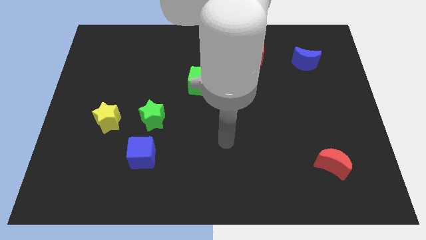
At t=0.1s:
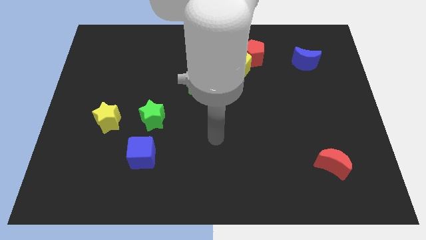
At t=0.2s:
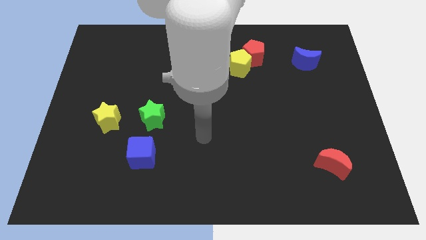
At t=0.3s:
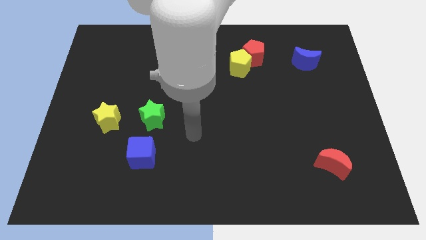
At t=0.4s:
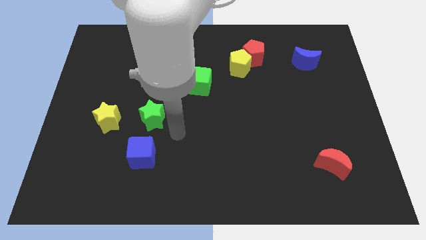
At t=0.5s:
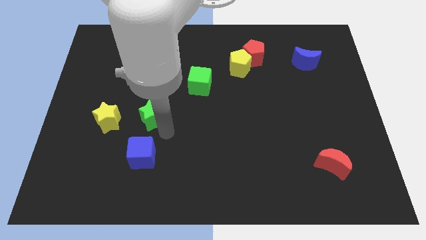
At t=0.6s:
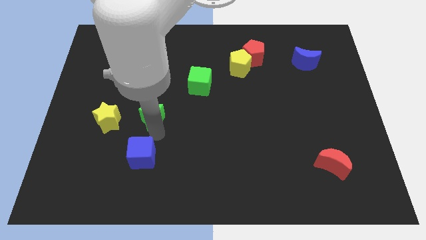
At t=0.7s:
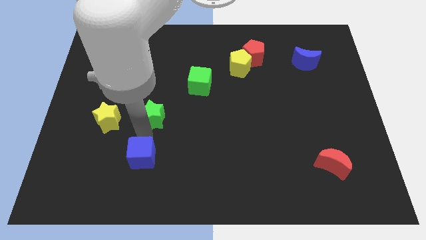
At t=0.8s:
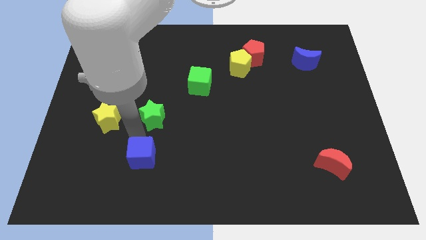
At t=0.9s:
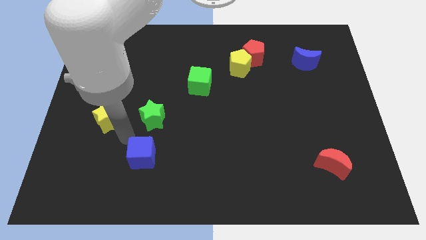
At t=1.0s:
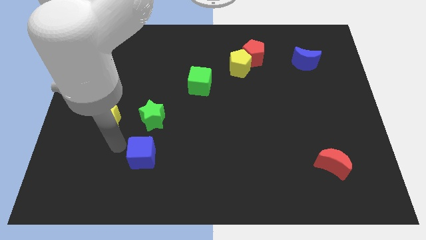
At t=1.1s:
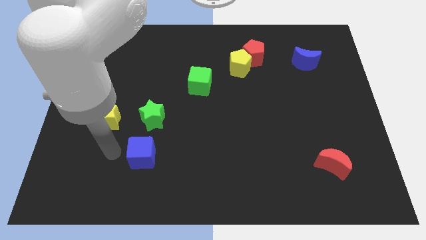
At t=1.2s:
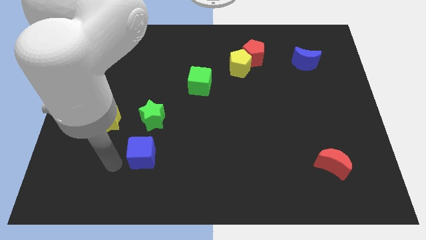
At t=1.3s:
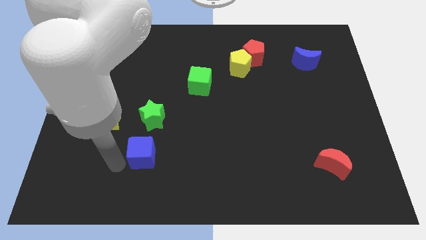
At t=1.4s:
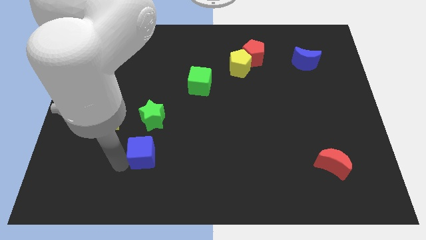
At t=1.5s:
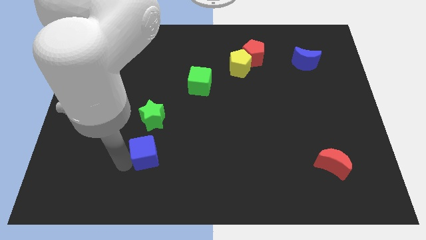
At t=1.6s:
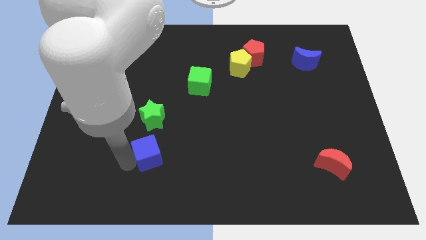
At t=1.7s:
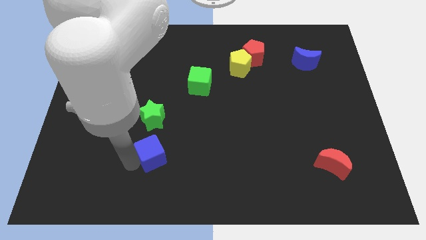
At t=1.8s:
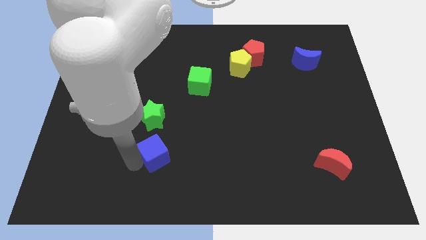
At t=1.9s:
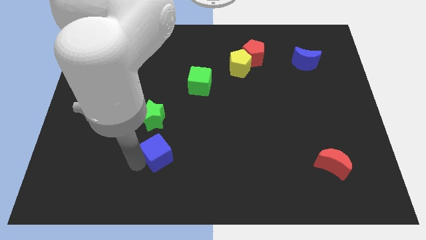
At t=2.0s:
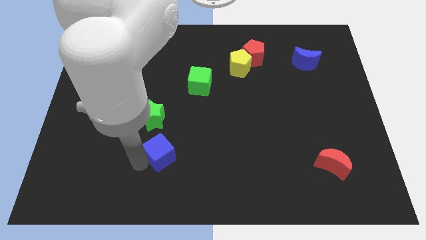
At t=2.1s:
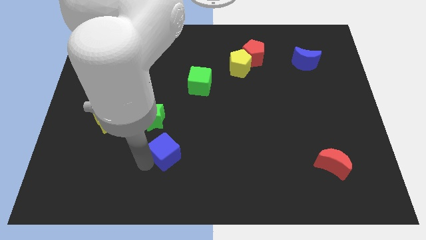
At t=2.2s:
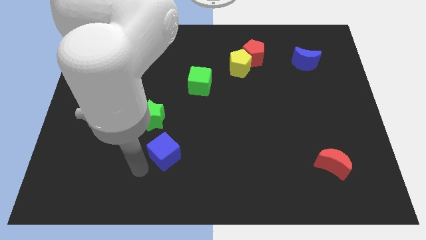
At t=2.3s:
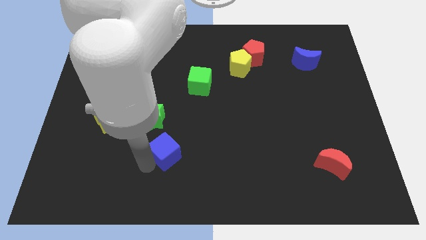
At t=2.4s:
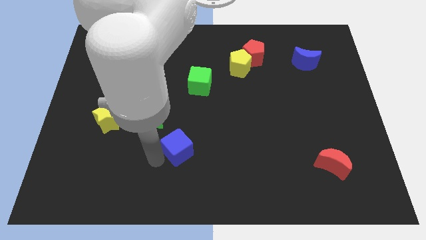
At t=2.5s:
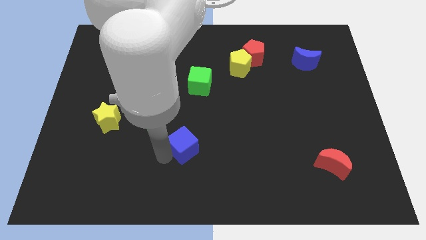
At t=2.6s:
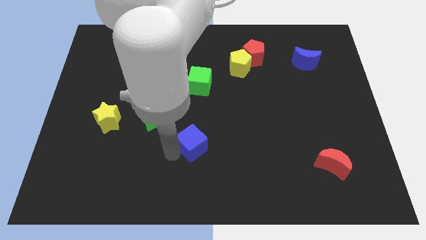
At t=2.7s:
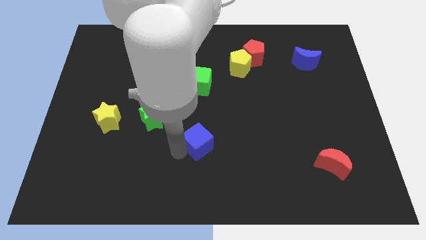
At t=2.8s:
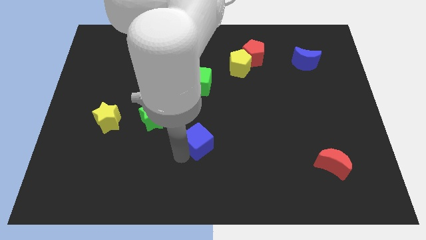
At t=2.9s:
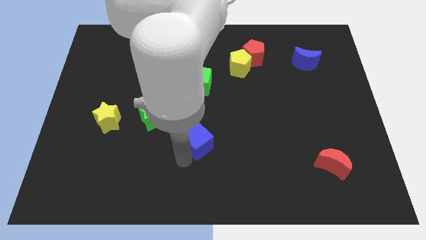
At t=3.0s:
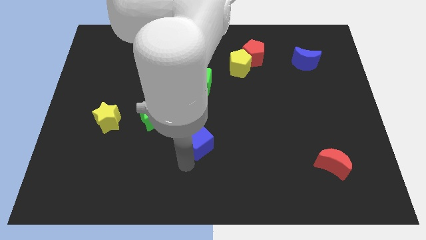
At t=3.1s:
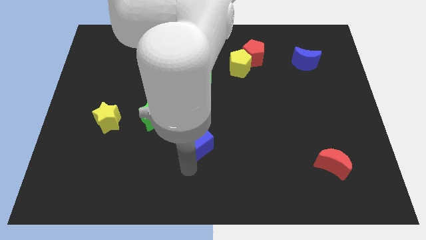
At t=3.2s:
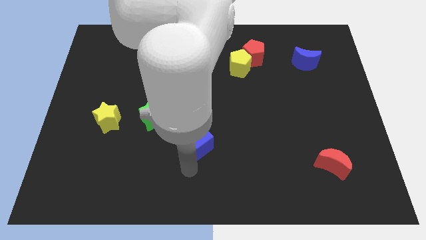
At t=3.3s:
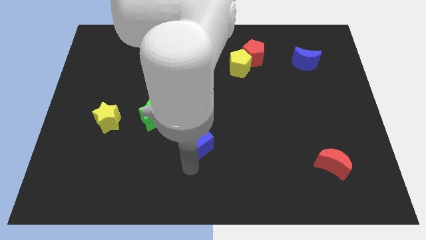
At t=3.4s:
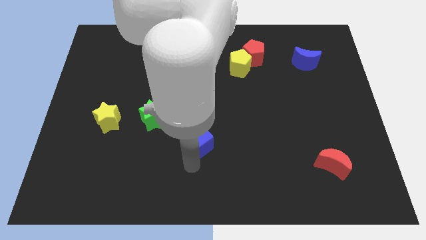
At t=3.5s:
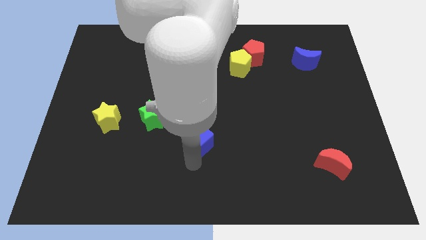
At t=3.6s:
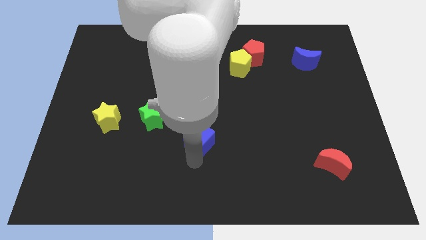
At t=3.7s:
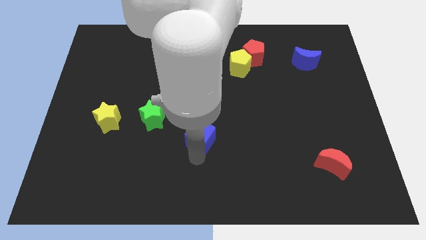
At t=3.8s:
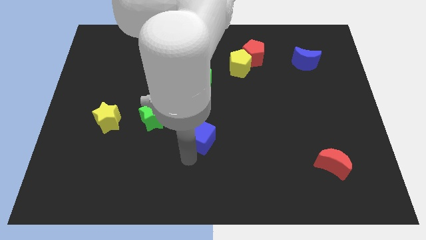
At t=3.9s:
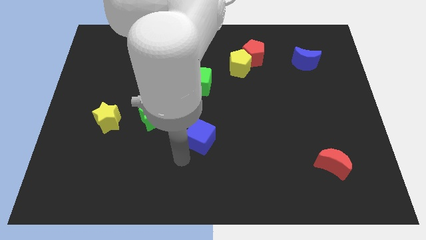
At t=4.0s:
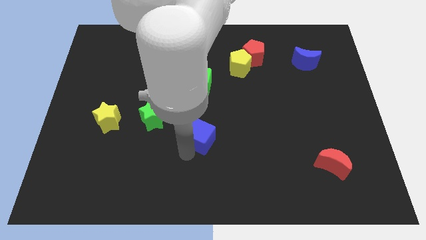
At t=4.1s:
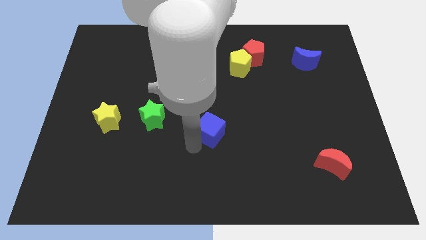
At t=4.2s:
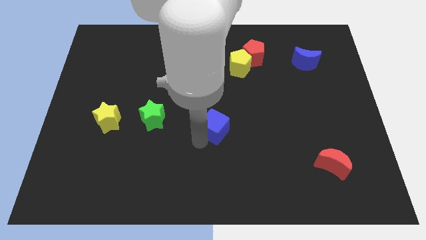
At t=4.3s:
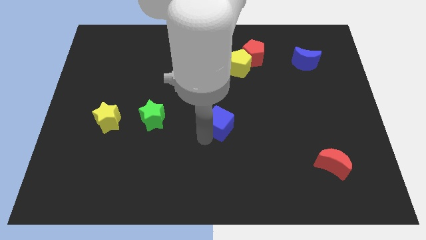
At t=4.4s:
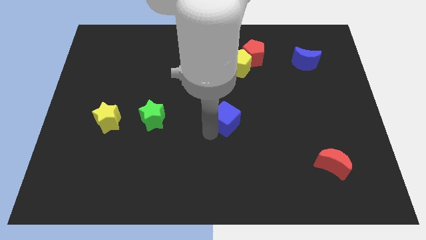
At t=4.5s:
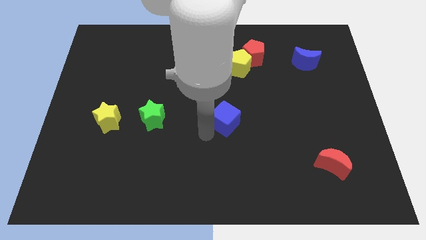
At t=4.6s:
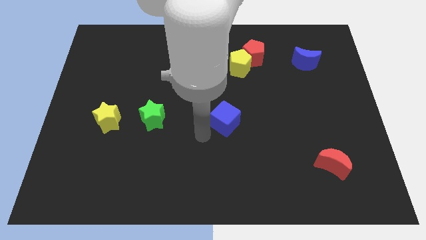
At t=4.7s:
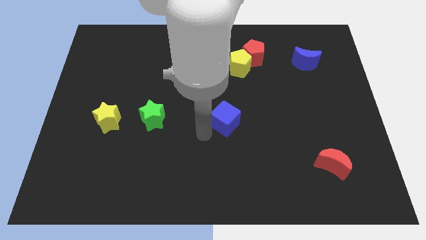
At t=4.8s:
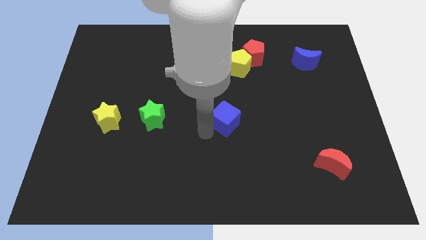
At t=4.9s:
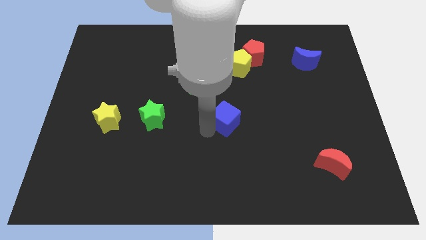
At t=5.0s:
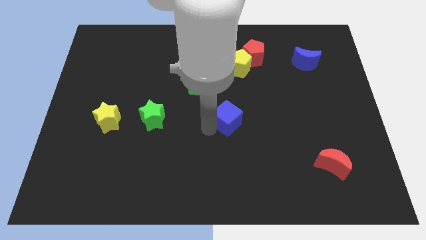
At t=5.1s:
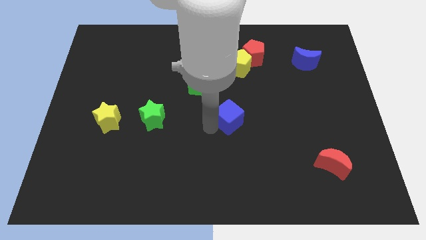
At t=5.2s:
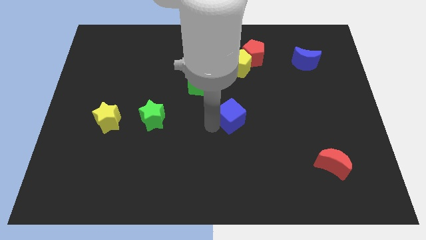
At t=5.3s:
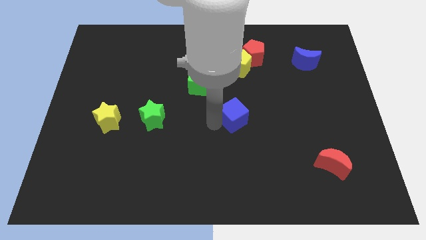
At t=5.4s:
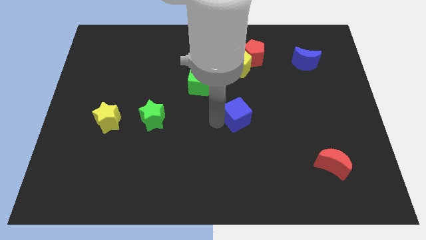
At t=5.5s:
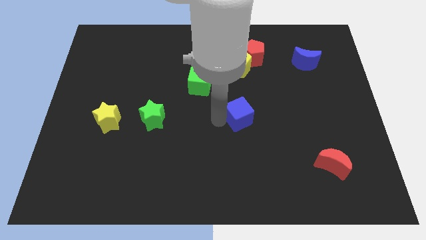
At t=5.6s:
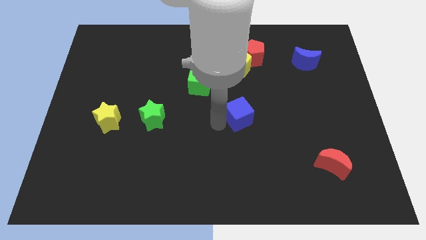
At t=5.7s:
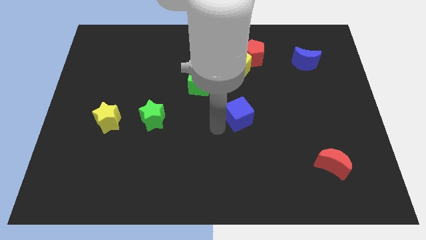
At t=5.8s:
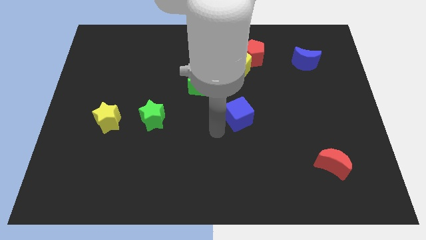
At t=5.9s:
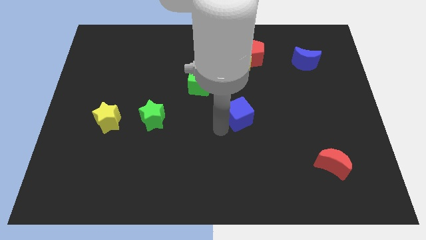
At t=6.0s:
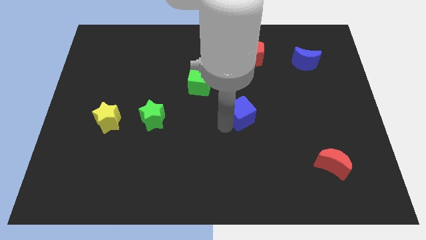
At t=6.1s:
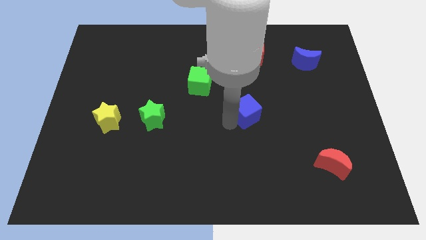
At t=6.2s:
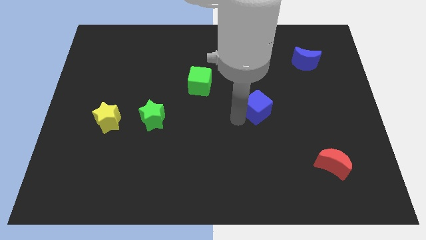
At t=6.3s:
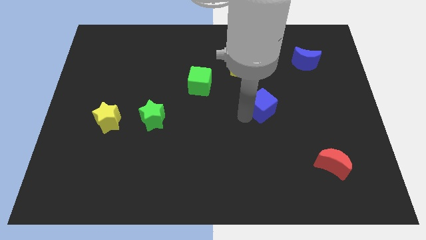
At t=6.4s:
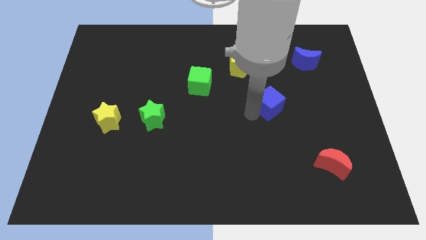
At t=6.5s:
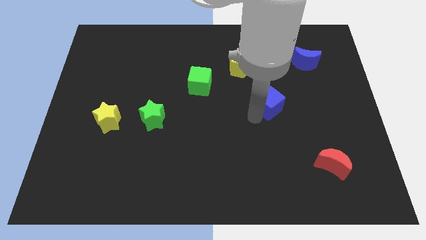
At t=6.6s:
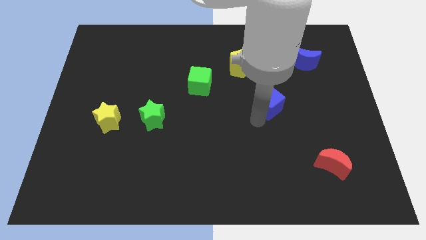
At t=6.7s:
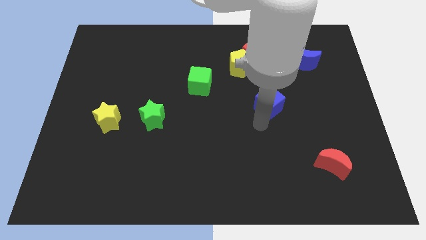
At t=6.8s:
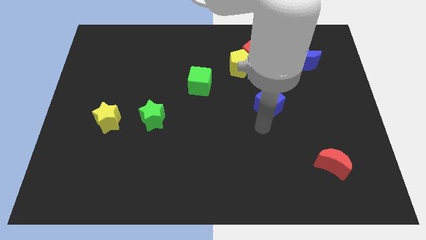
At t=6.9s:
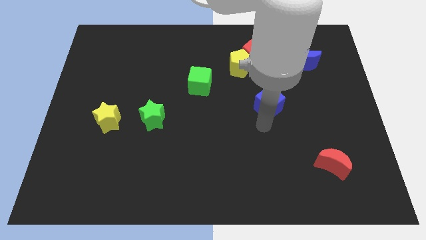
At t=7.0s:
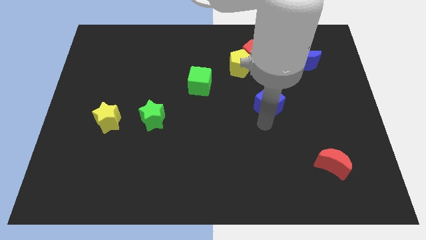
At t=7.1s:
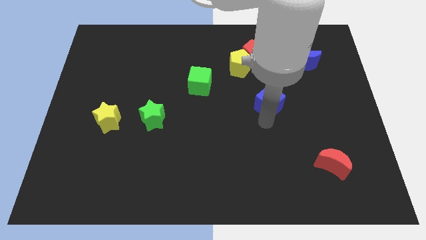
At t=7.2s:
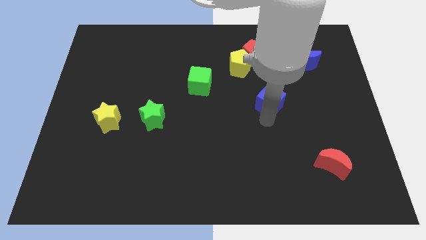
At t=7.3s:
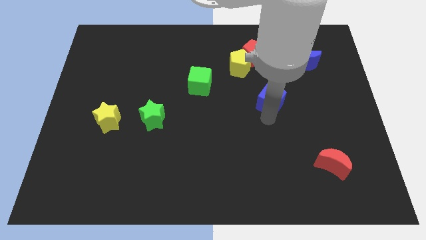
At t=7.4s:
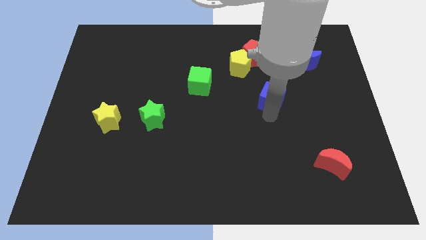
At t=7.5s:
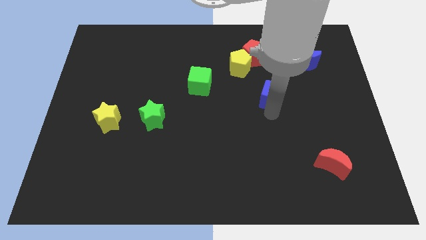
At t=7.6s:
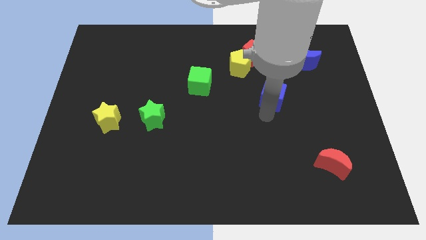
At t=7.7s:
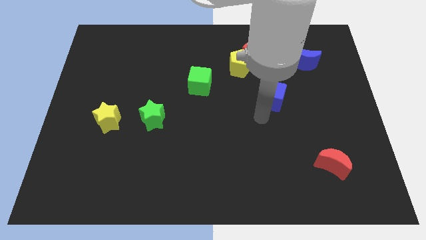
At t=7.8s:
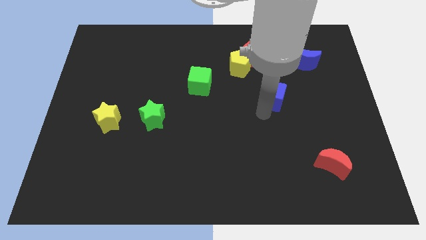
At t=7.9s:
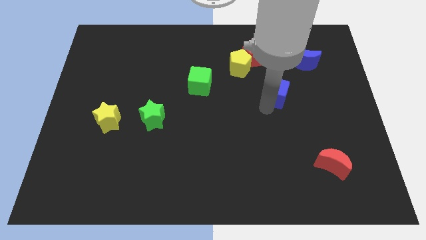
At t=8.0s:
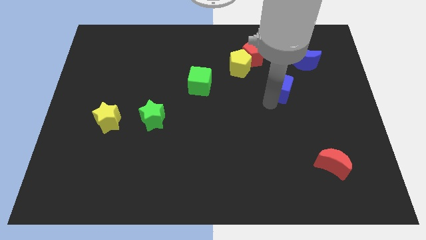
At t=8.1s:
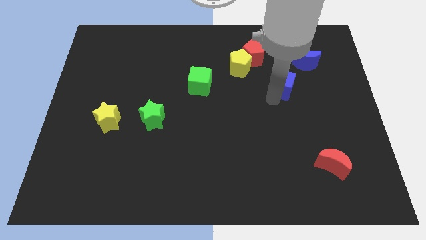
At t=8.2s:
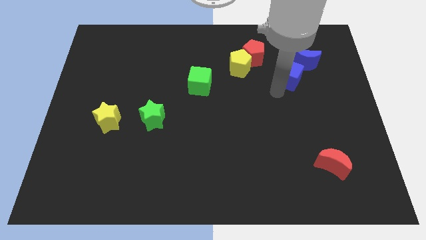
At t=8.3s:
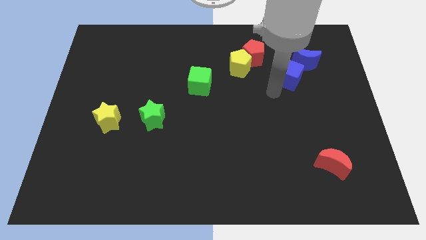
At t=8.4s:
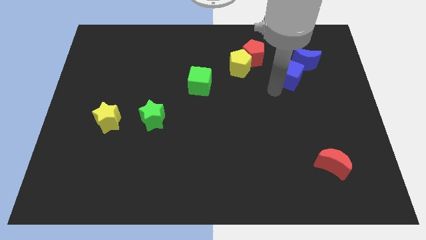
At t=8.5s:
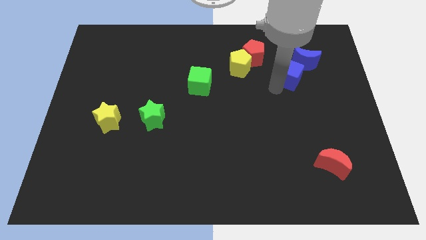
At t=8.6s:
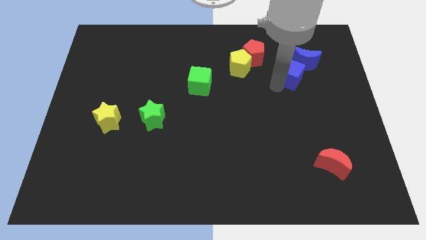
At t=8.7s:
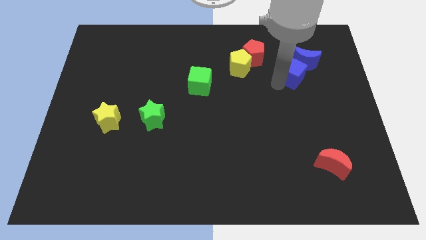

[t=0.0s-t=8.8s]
move the blue cube close to the blue moon
